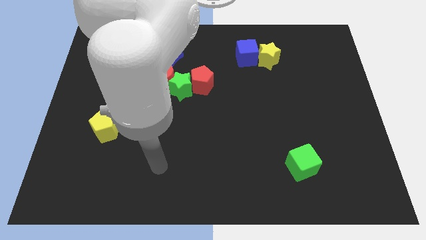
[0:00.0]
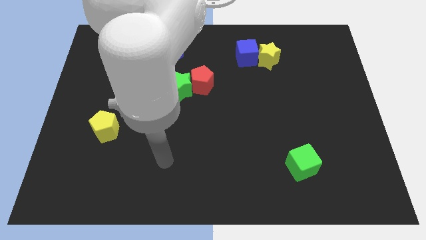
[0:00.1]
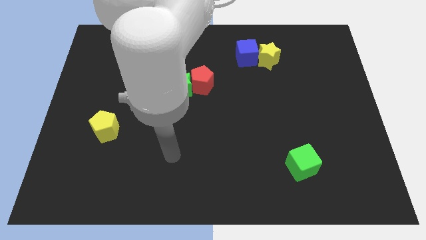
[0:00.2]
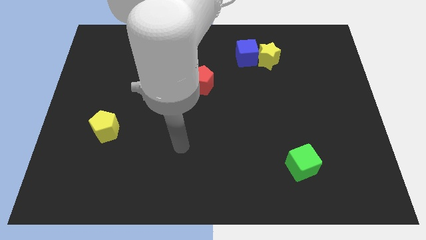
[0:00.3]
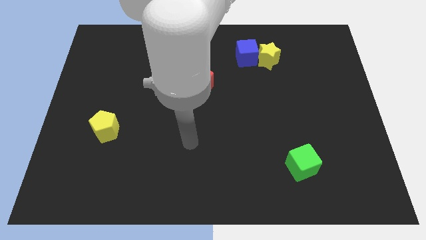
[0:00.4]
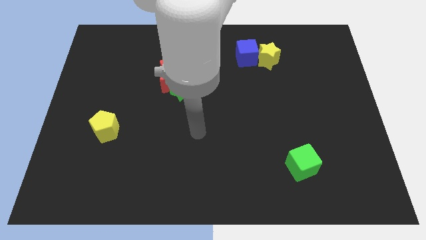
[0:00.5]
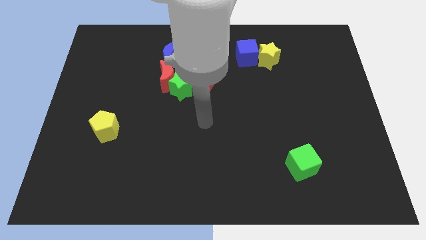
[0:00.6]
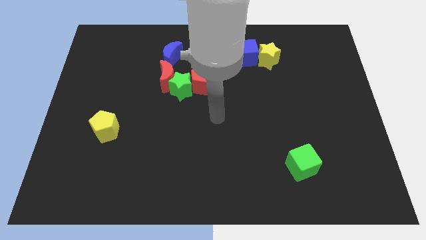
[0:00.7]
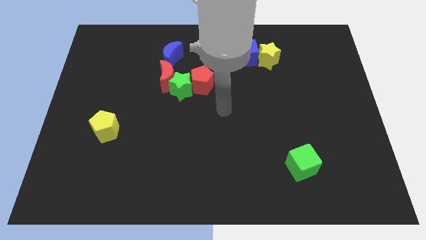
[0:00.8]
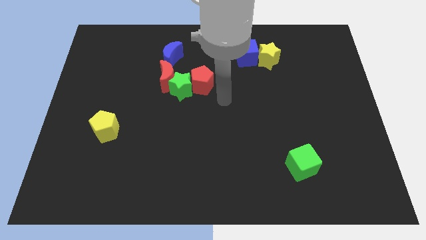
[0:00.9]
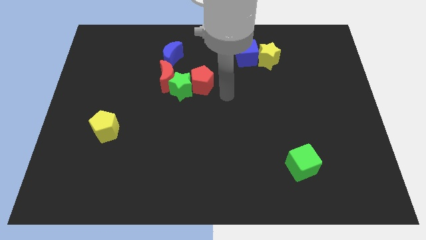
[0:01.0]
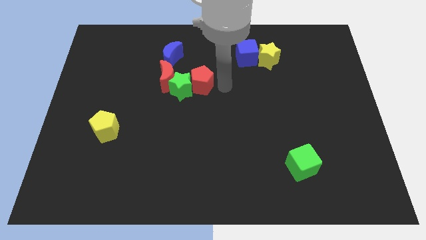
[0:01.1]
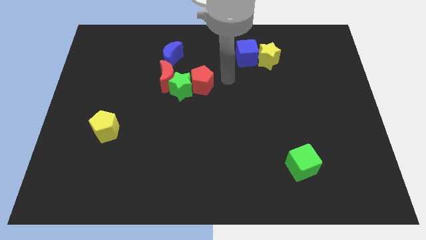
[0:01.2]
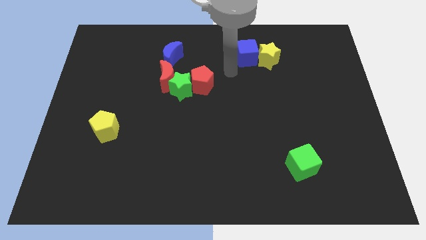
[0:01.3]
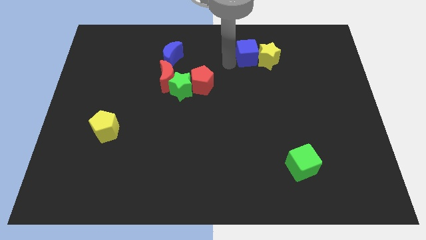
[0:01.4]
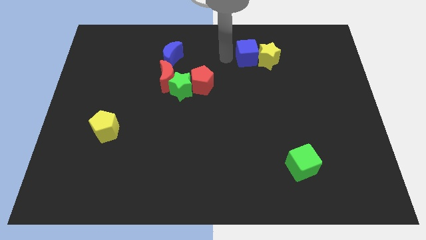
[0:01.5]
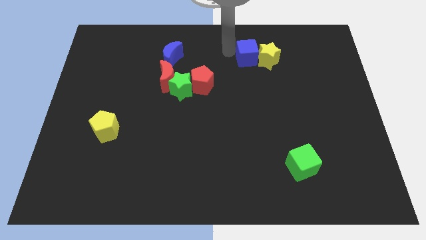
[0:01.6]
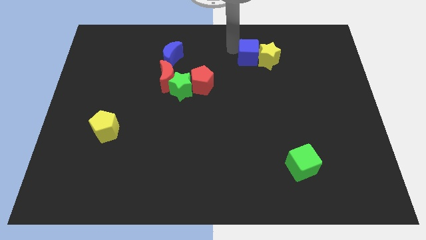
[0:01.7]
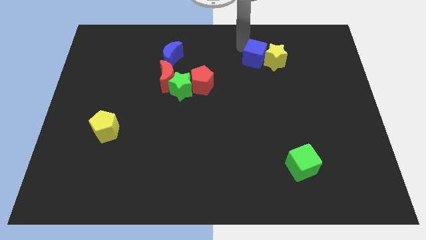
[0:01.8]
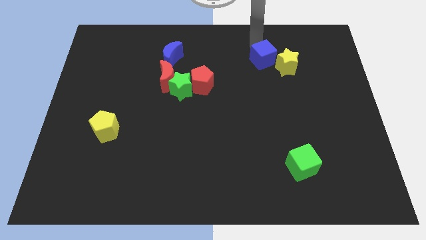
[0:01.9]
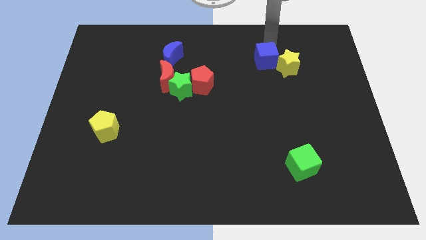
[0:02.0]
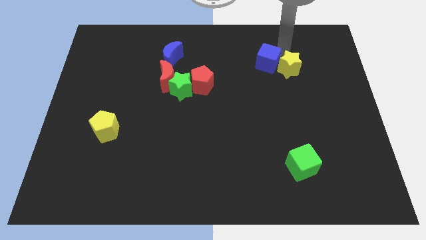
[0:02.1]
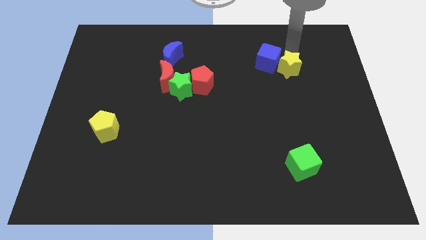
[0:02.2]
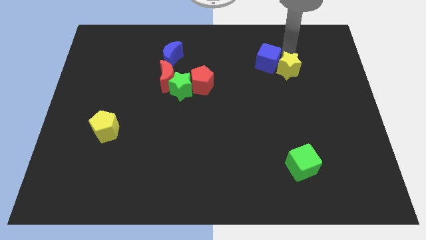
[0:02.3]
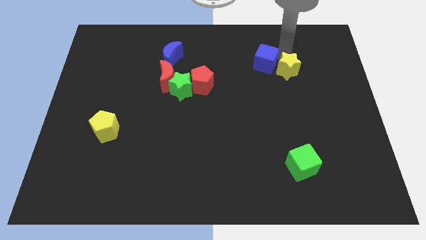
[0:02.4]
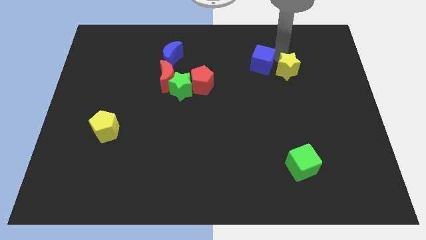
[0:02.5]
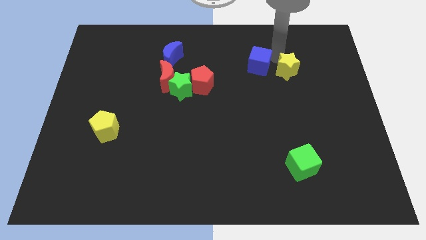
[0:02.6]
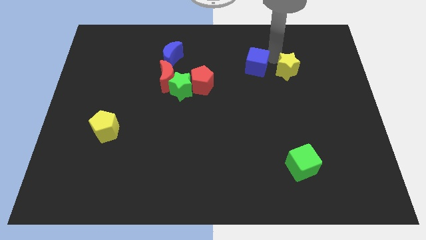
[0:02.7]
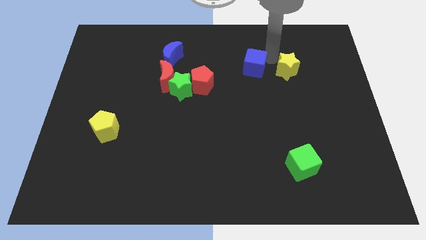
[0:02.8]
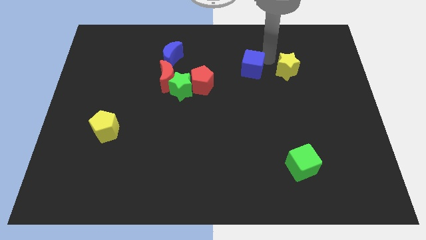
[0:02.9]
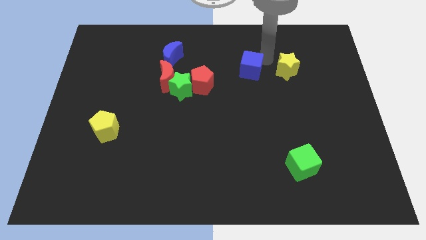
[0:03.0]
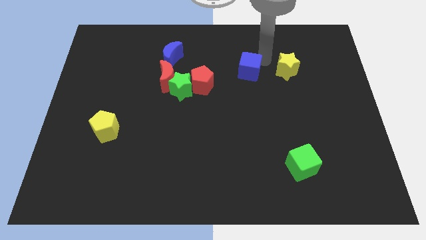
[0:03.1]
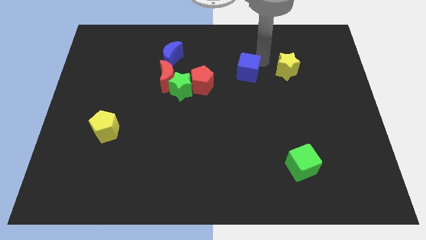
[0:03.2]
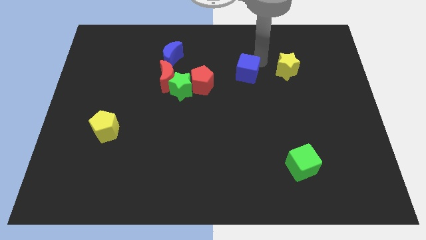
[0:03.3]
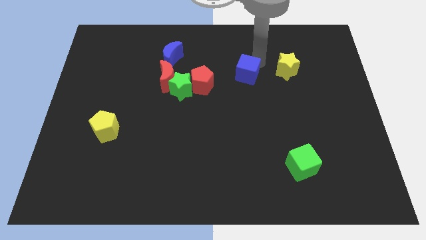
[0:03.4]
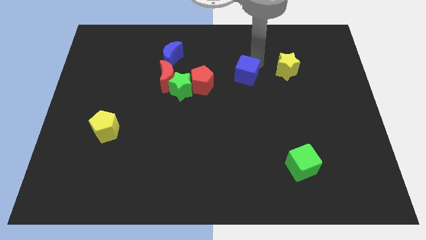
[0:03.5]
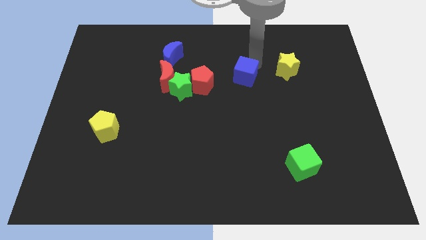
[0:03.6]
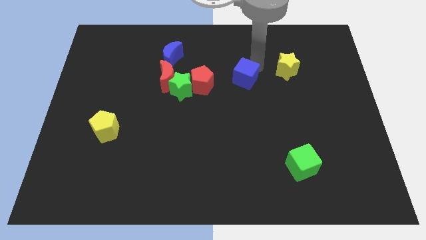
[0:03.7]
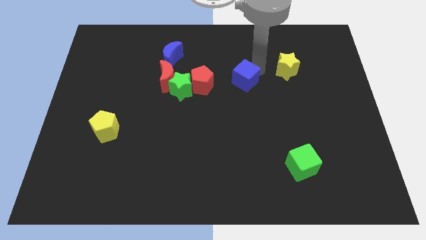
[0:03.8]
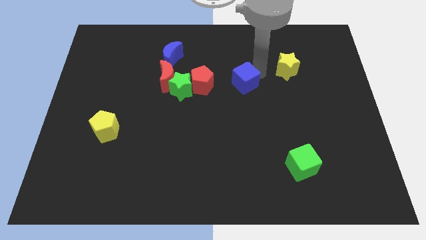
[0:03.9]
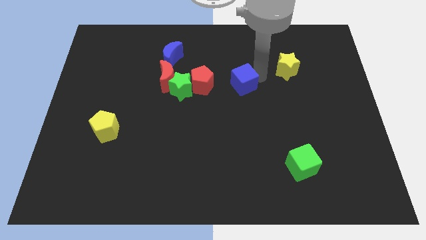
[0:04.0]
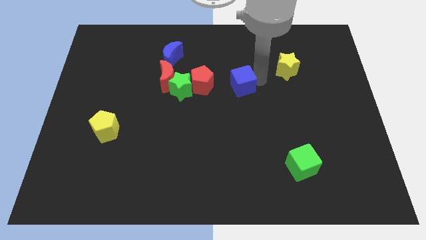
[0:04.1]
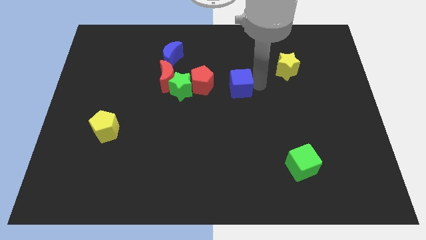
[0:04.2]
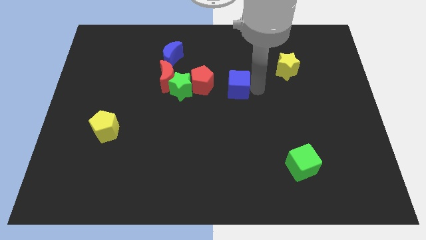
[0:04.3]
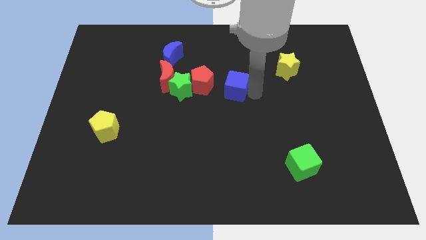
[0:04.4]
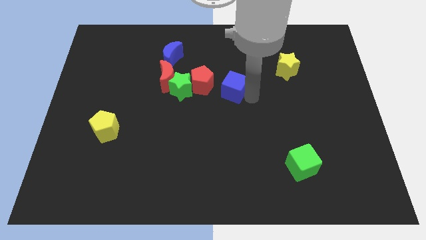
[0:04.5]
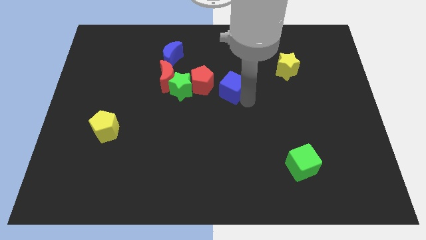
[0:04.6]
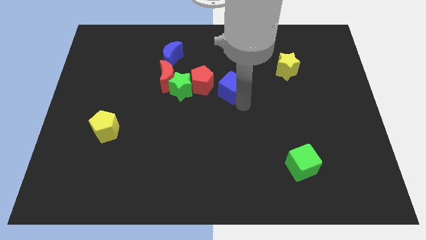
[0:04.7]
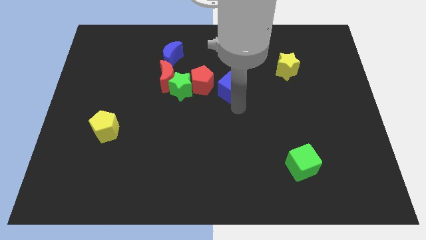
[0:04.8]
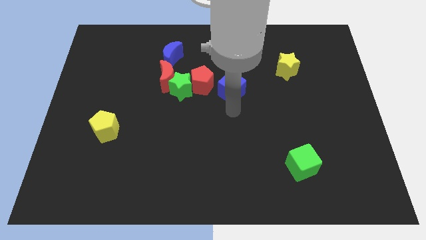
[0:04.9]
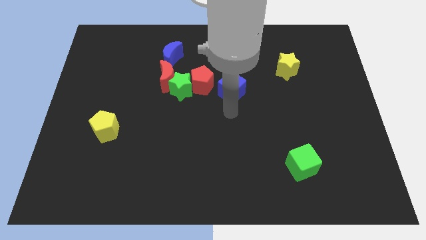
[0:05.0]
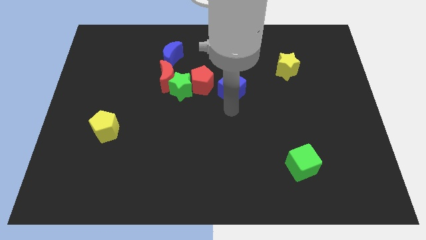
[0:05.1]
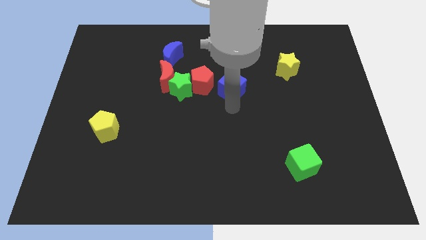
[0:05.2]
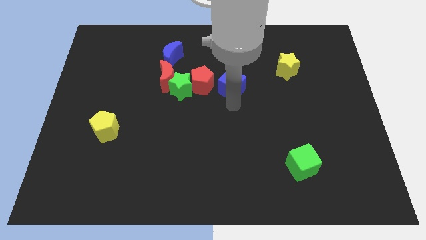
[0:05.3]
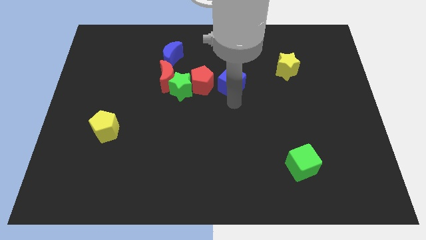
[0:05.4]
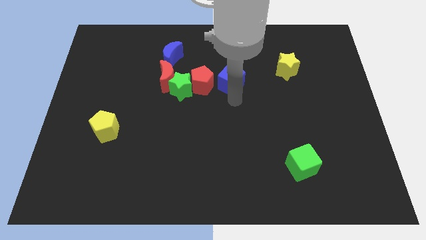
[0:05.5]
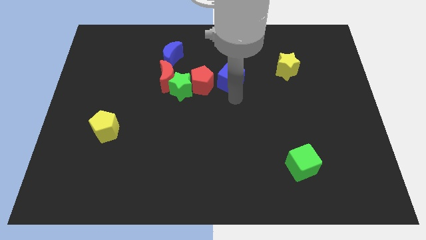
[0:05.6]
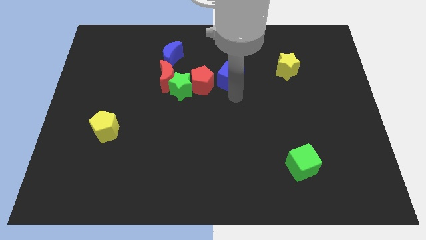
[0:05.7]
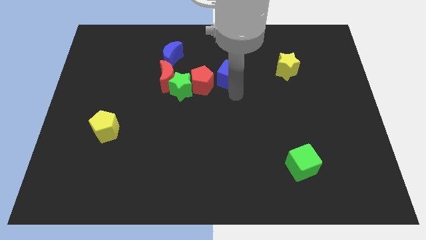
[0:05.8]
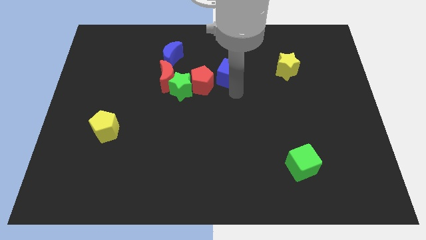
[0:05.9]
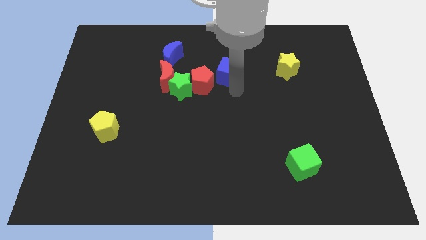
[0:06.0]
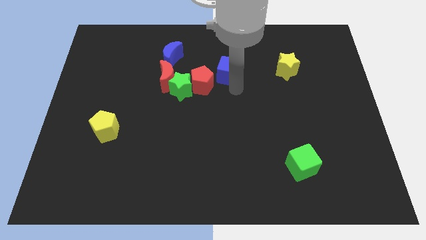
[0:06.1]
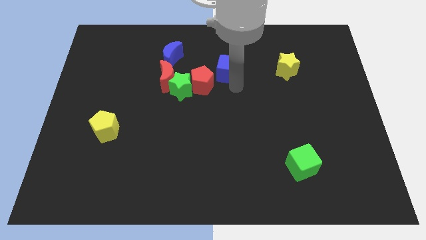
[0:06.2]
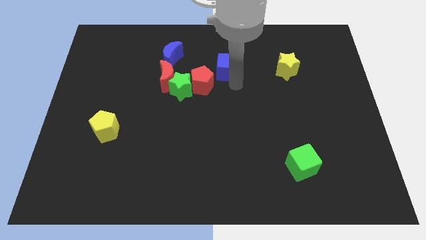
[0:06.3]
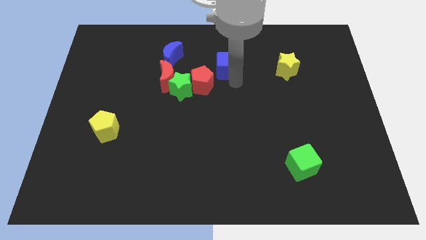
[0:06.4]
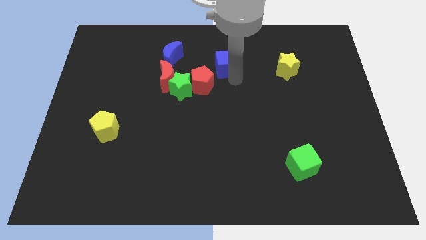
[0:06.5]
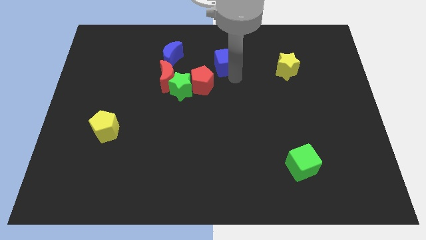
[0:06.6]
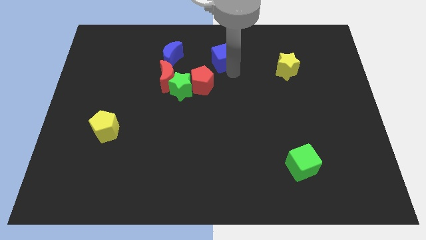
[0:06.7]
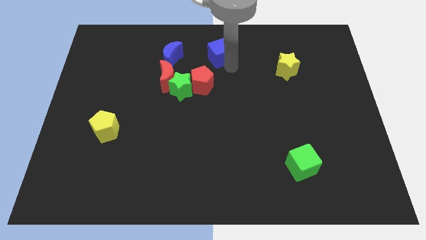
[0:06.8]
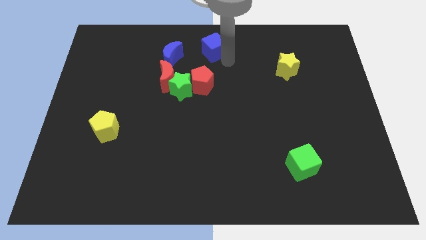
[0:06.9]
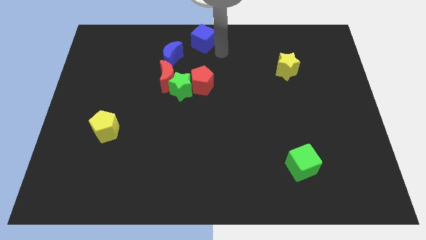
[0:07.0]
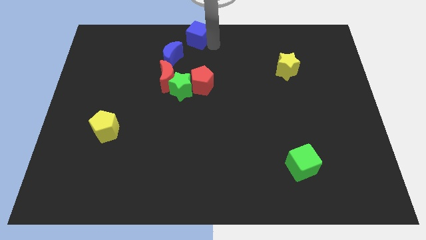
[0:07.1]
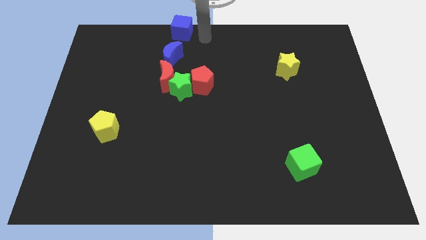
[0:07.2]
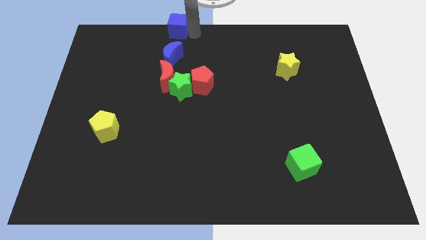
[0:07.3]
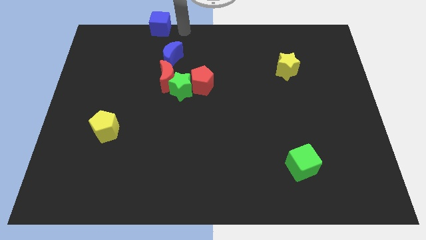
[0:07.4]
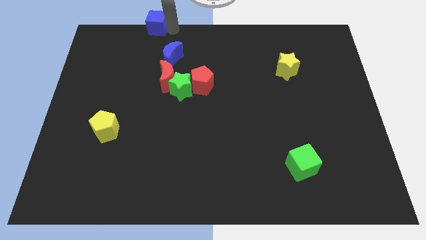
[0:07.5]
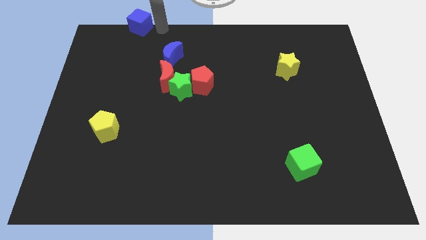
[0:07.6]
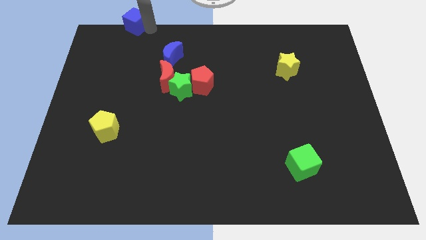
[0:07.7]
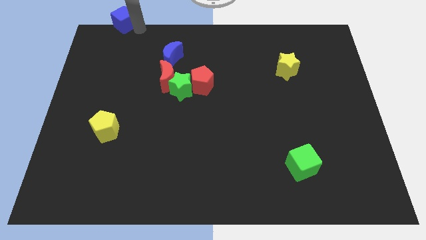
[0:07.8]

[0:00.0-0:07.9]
put the blue cube to the top left corner

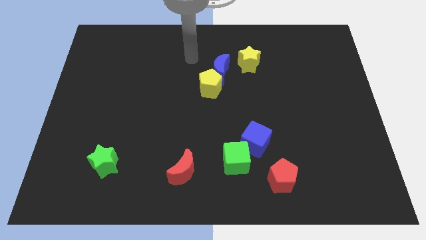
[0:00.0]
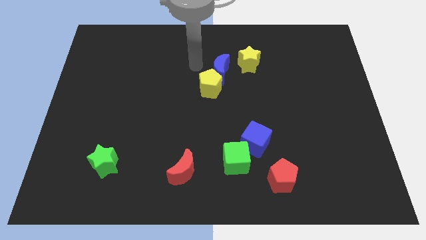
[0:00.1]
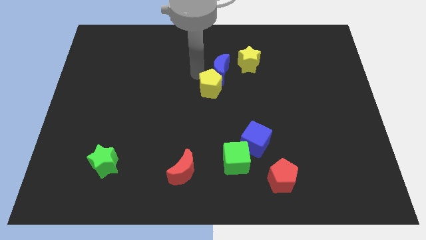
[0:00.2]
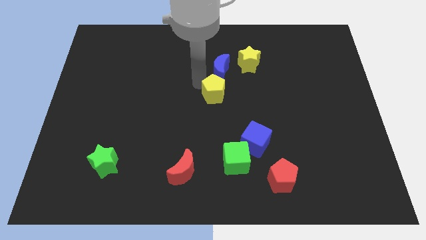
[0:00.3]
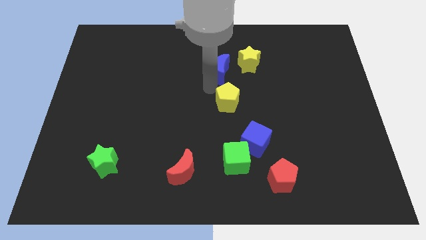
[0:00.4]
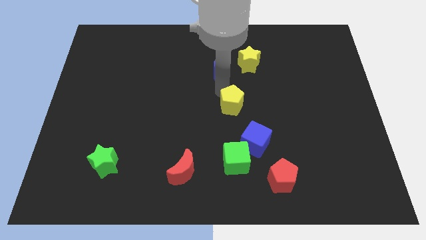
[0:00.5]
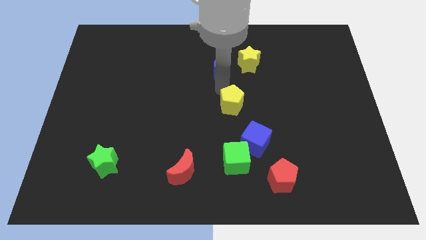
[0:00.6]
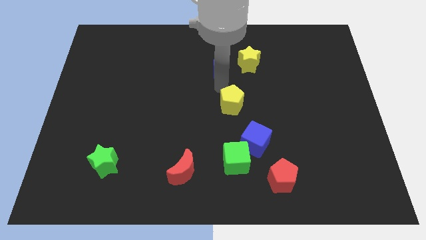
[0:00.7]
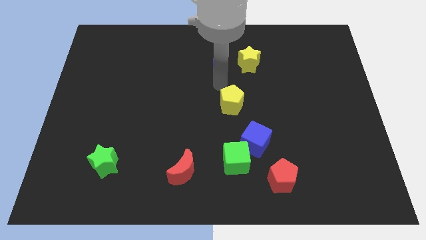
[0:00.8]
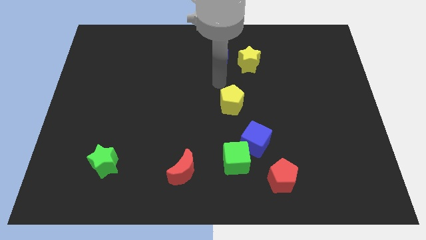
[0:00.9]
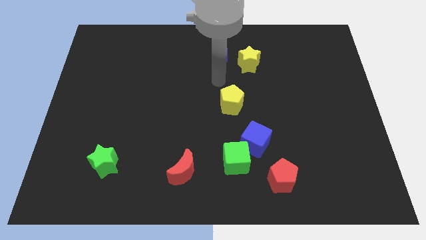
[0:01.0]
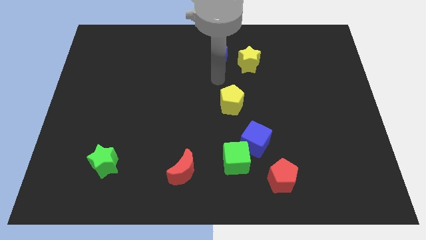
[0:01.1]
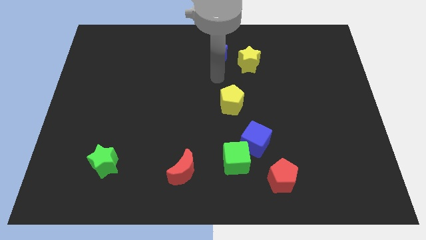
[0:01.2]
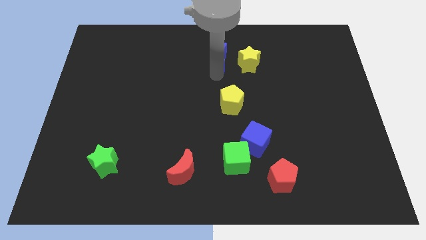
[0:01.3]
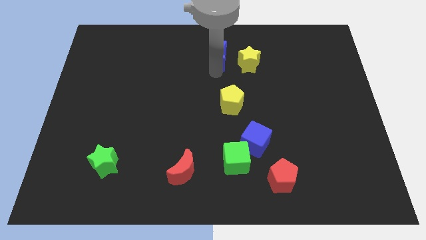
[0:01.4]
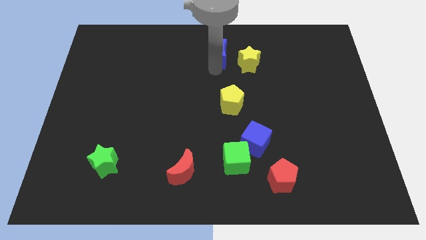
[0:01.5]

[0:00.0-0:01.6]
slide the blue moon to the top side
